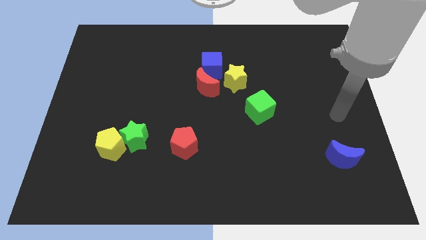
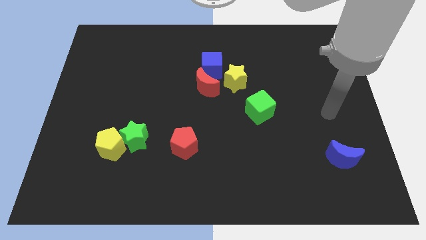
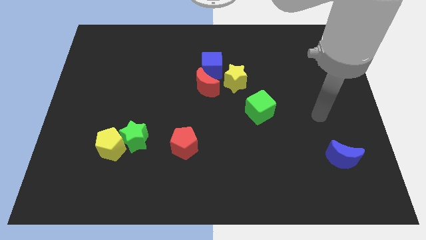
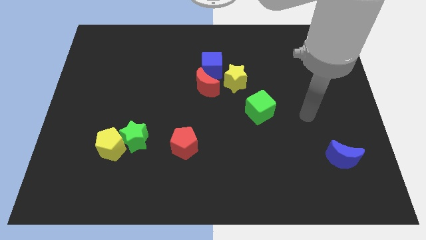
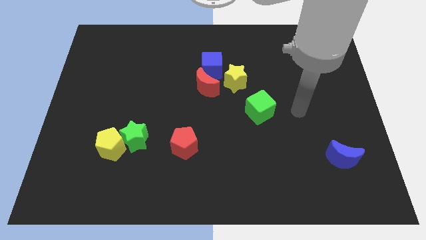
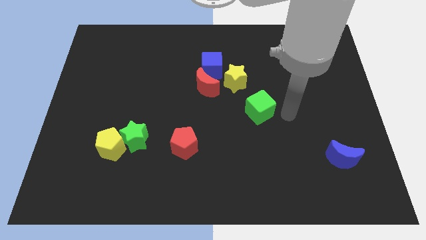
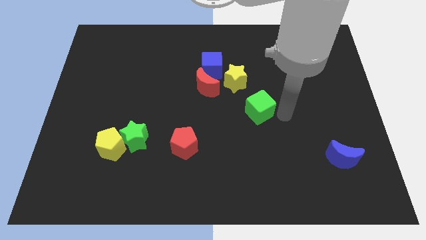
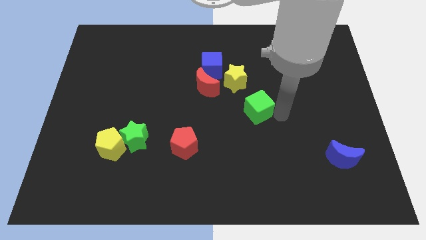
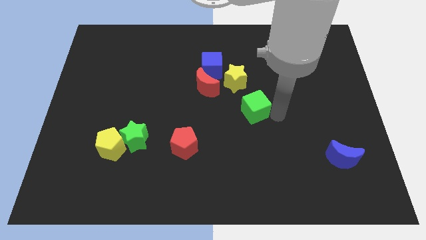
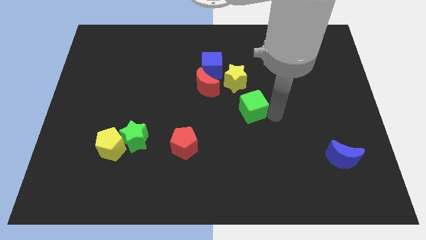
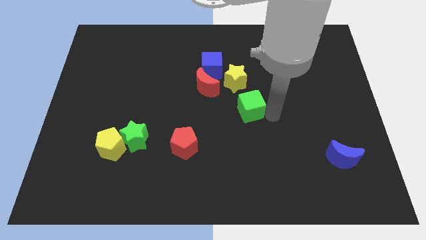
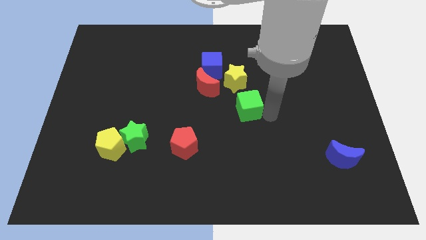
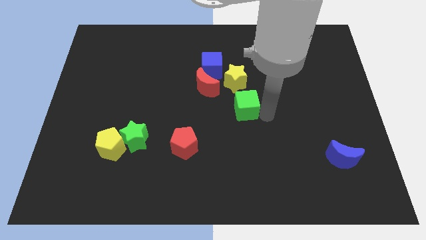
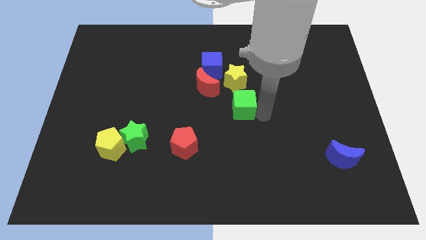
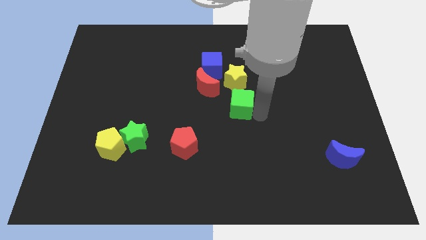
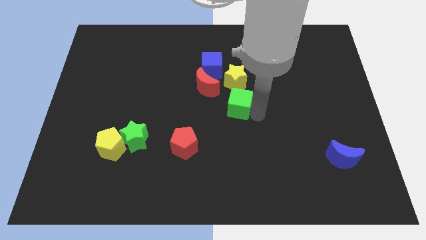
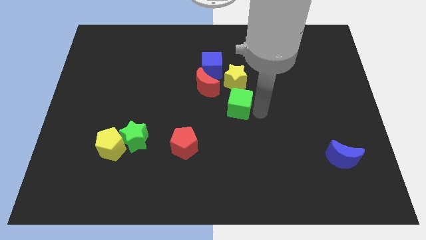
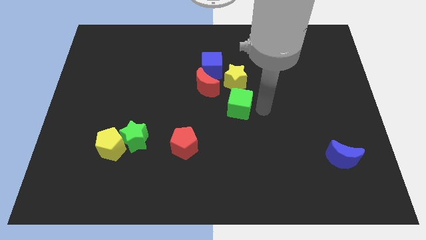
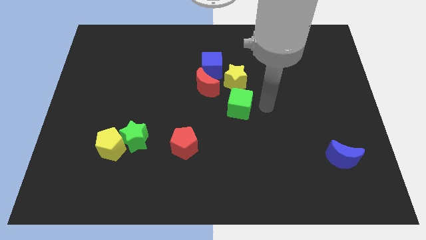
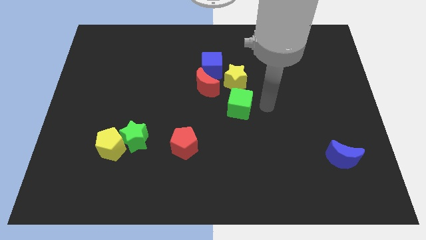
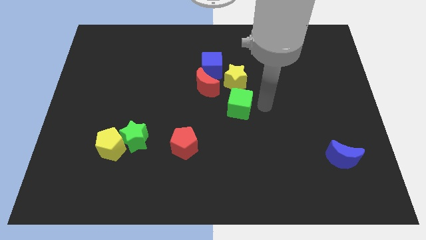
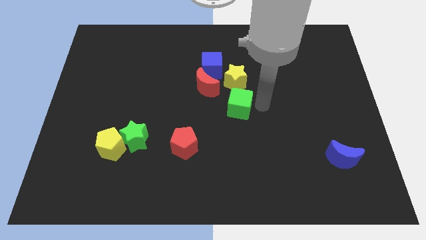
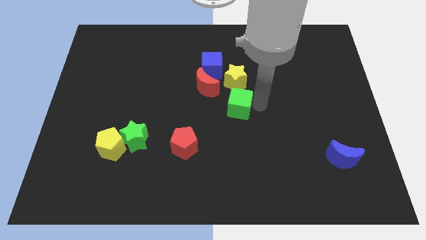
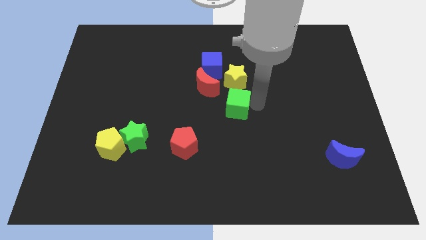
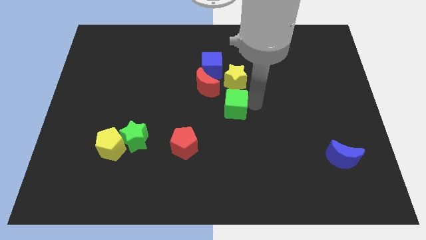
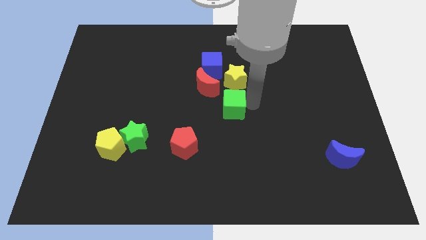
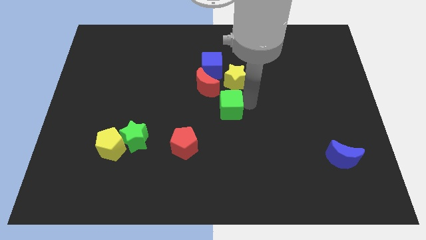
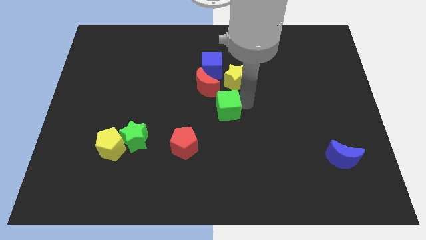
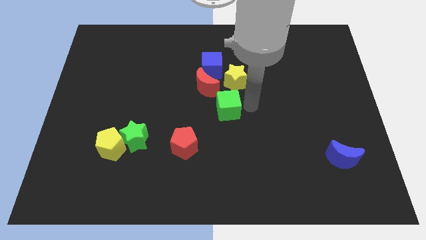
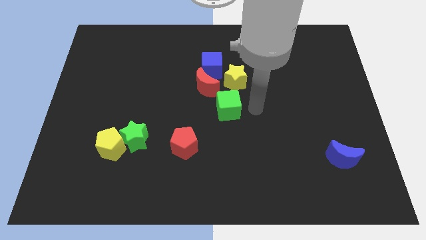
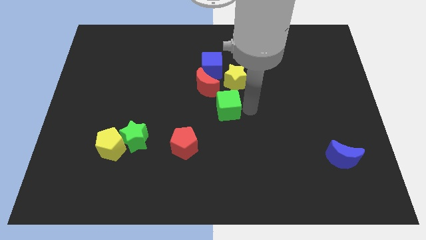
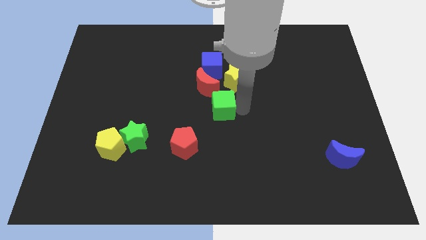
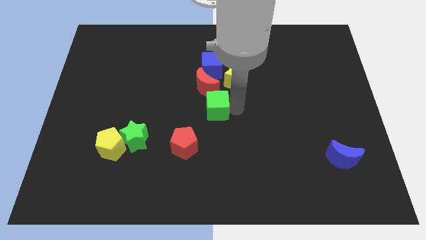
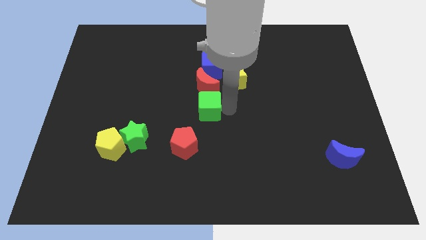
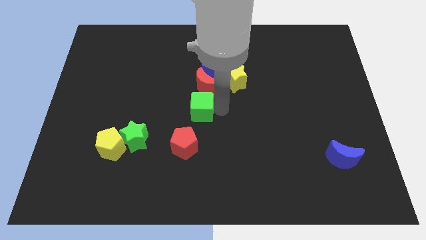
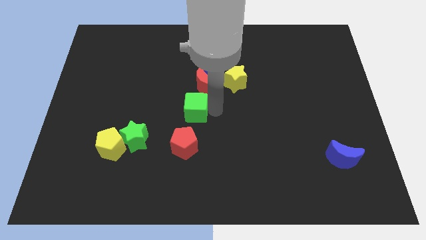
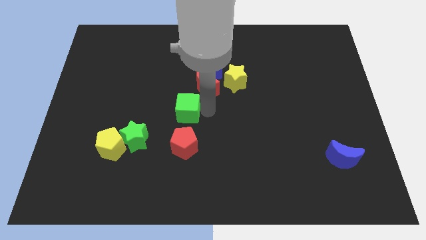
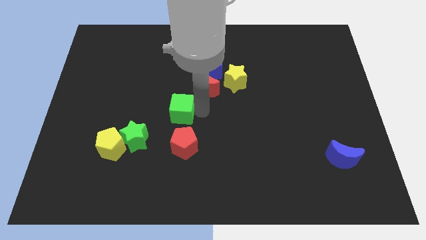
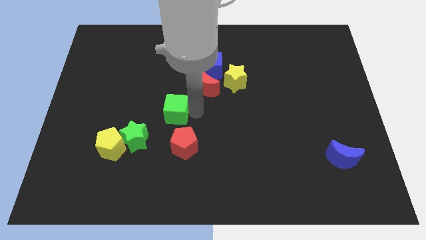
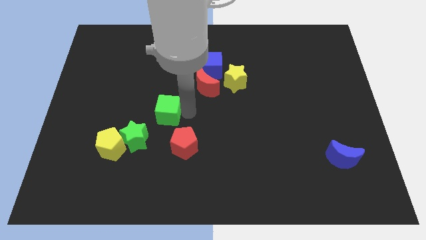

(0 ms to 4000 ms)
slide the green cube to the left

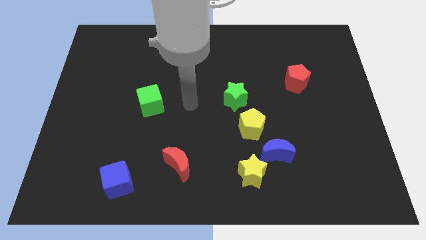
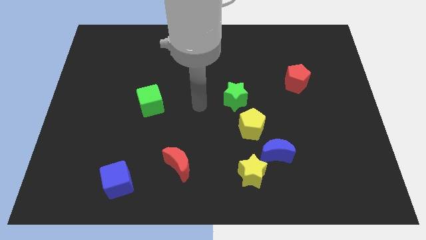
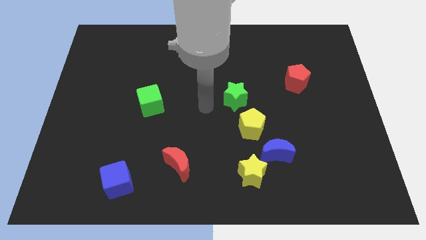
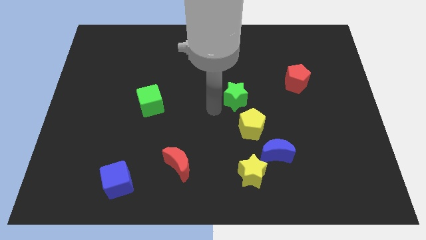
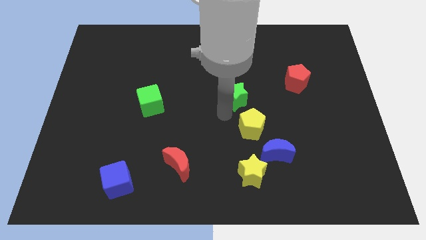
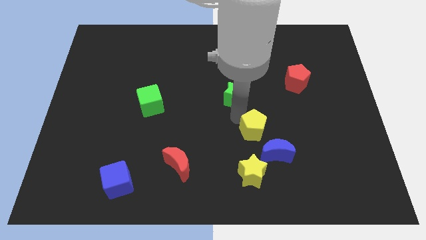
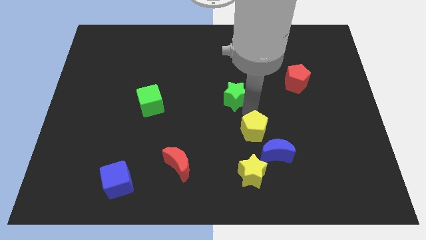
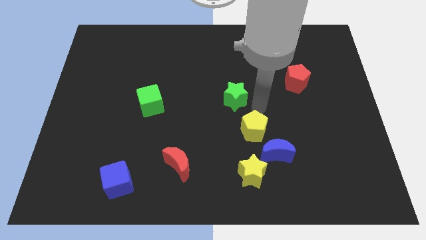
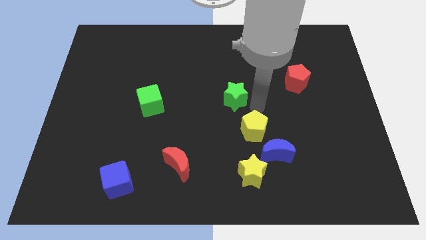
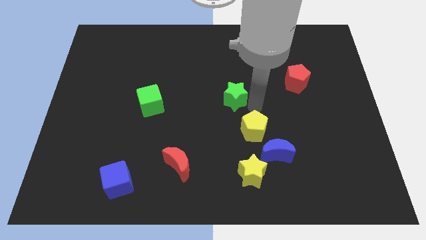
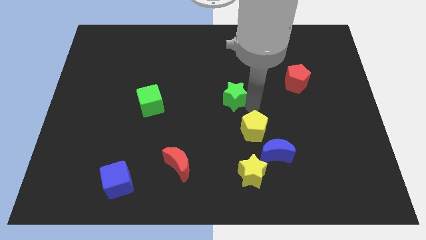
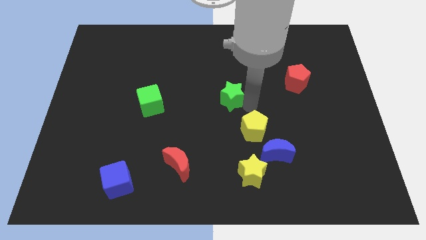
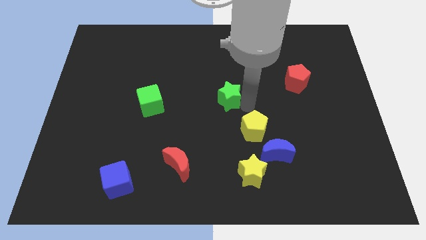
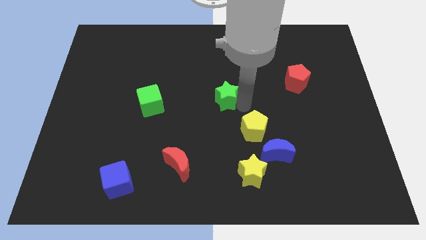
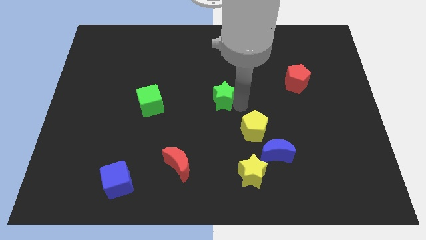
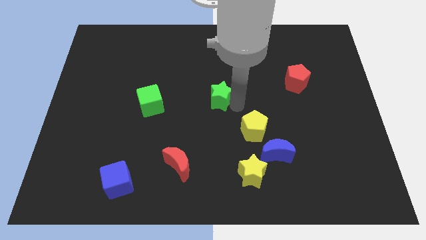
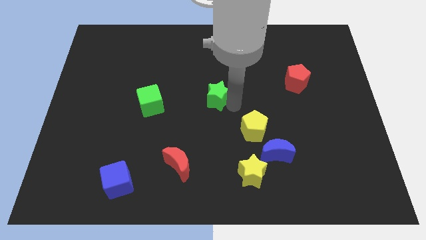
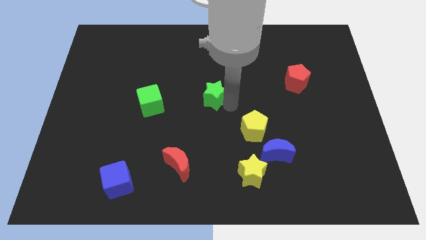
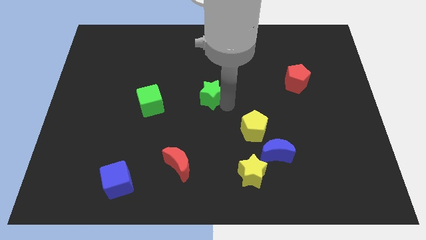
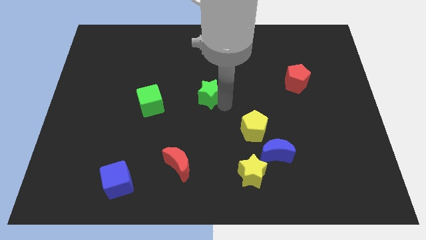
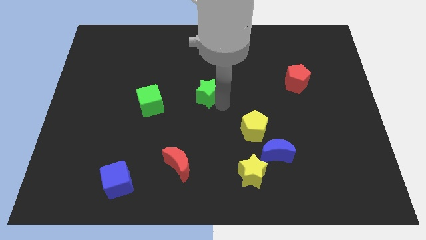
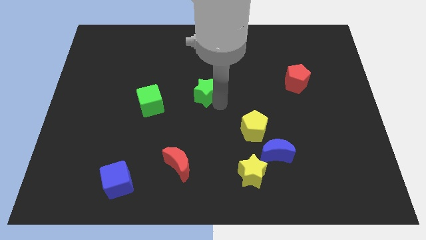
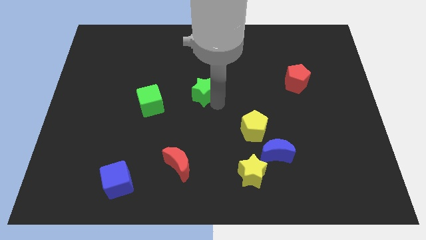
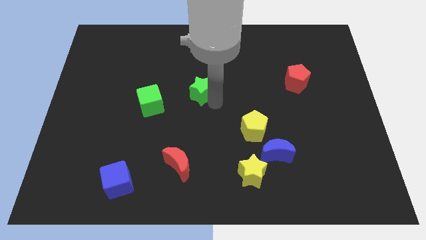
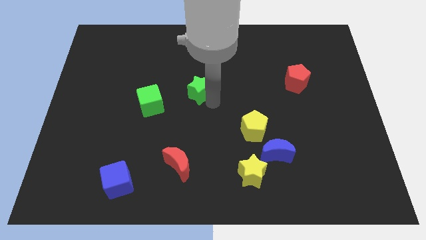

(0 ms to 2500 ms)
slightly slide the green star up and left diagonally

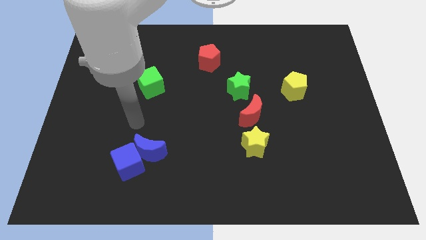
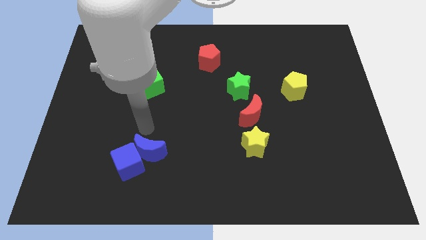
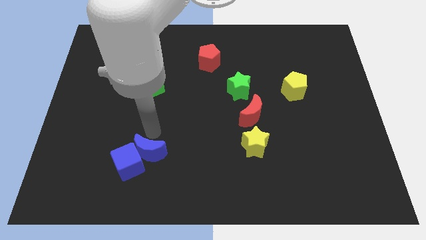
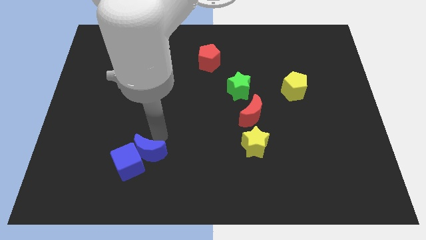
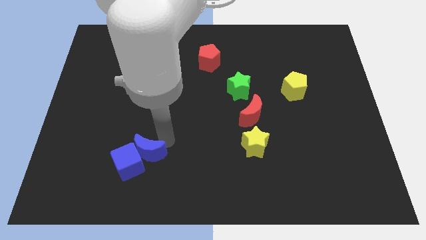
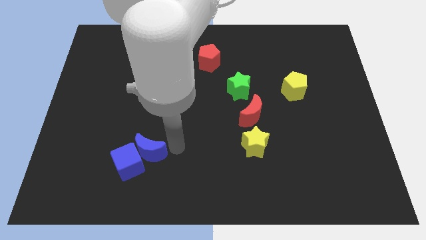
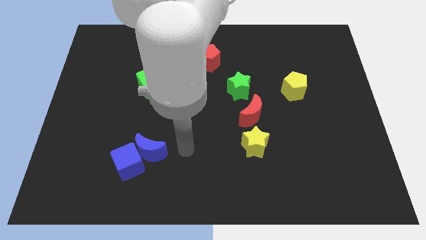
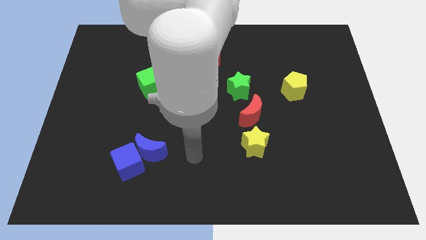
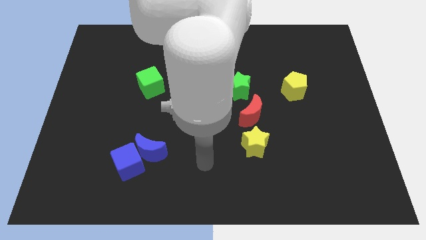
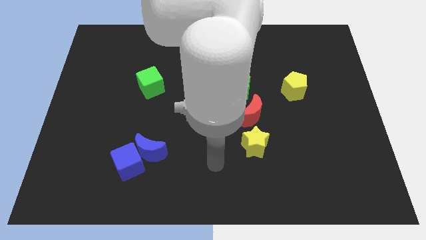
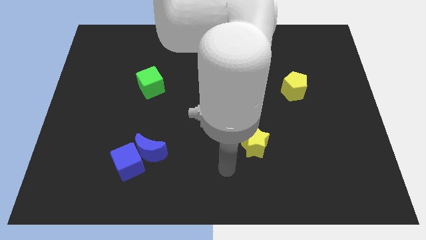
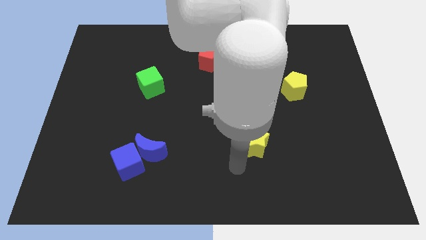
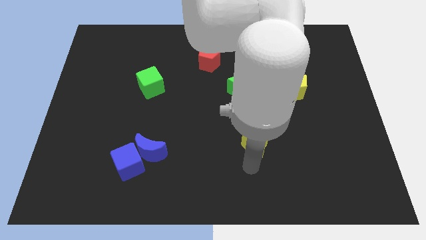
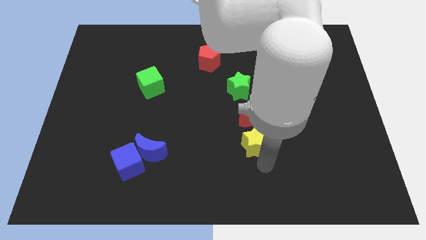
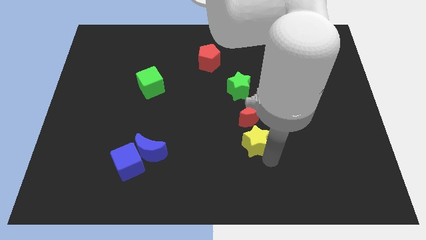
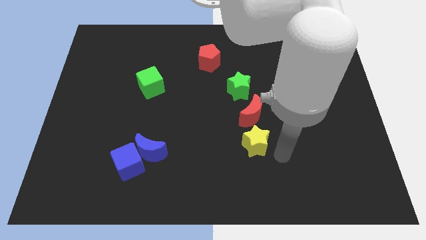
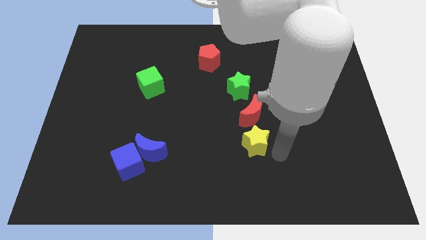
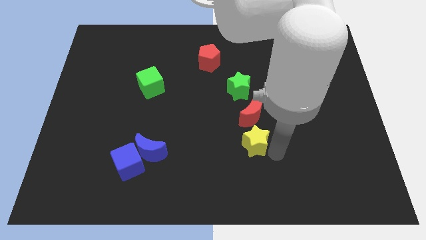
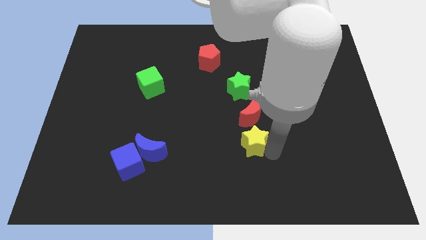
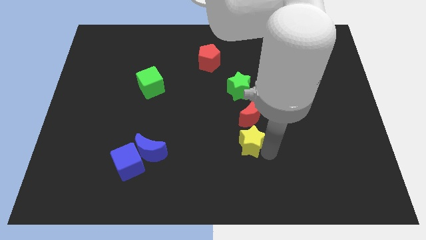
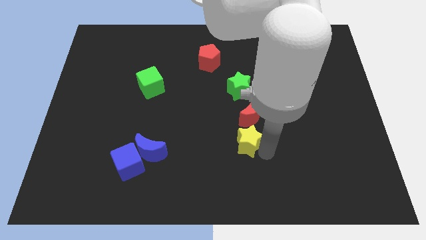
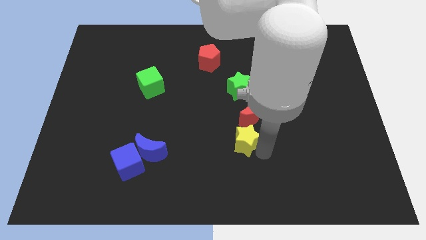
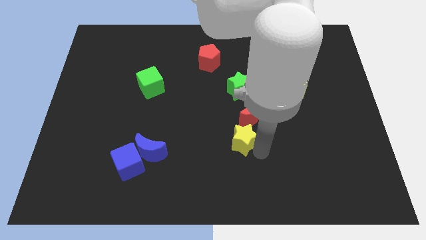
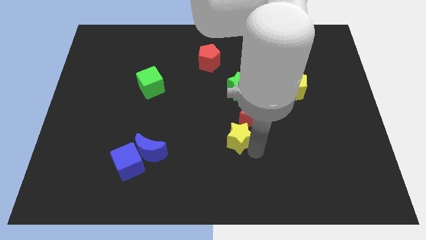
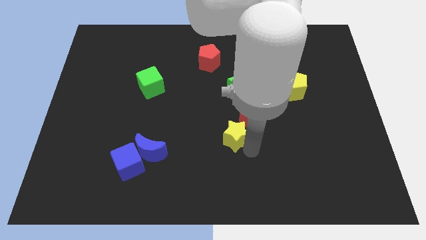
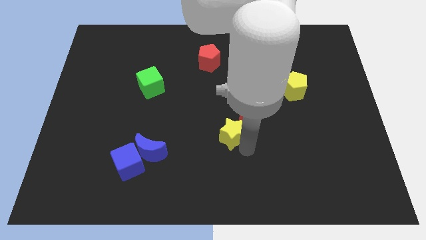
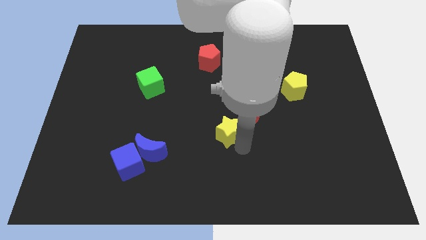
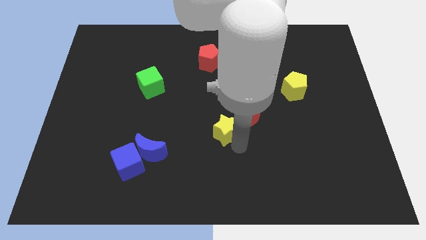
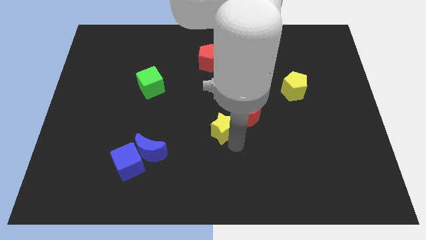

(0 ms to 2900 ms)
slightly move the yellow star upwards and to the left
